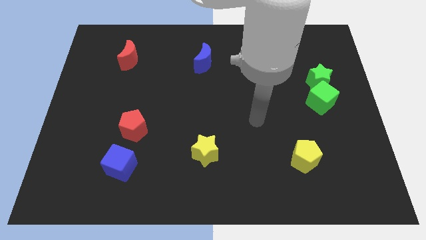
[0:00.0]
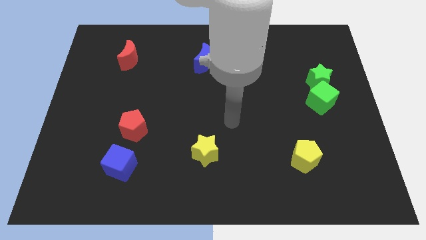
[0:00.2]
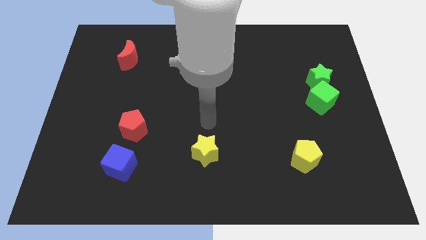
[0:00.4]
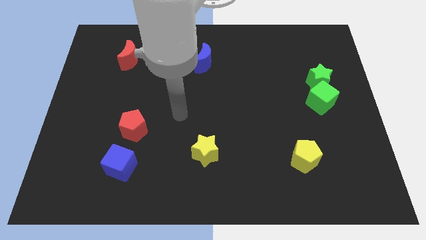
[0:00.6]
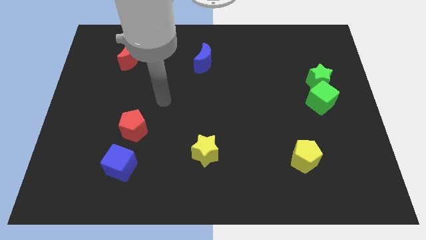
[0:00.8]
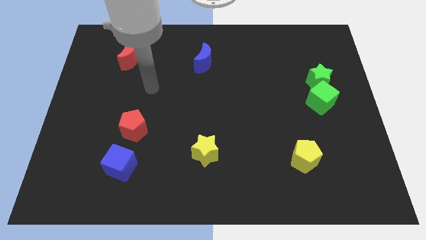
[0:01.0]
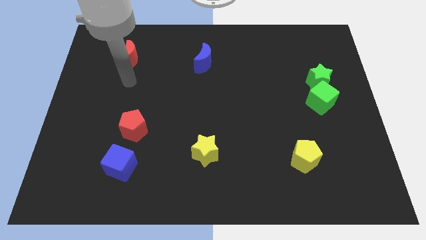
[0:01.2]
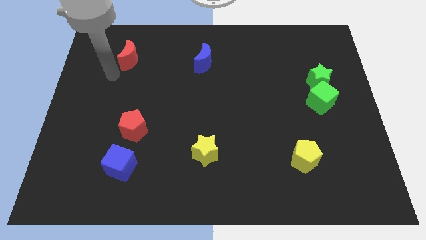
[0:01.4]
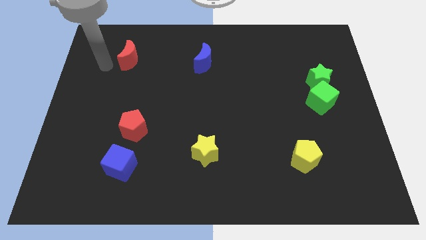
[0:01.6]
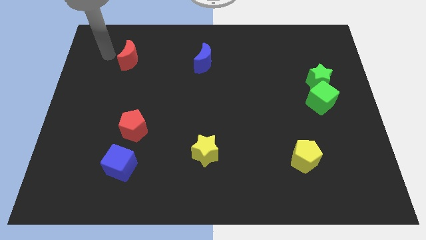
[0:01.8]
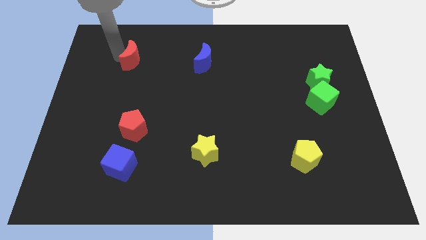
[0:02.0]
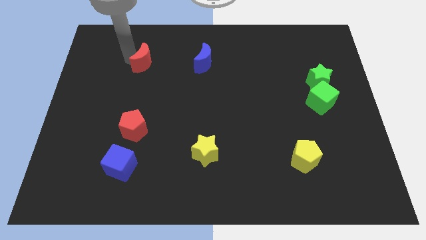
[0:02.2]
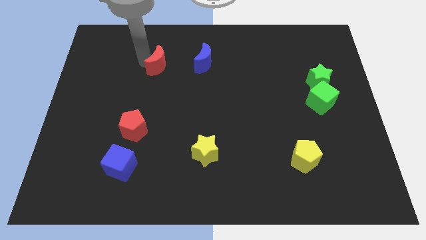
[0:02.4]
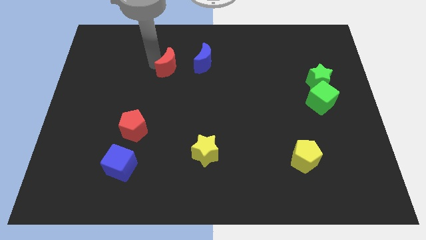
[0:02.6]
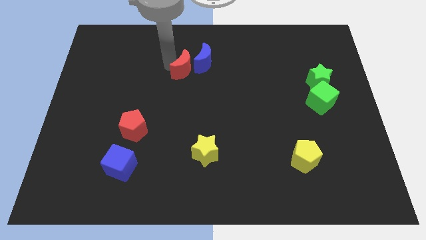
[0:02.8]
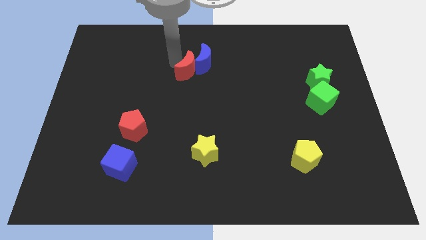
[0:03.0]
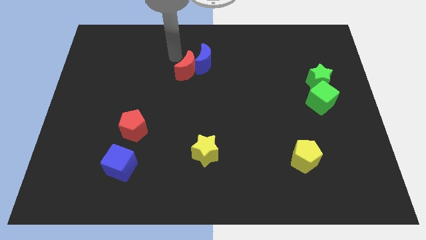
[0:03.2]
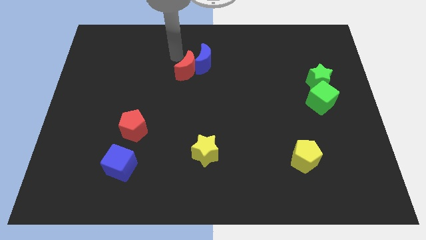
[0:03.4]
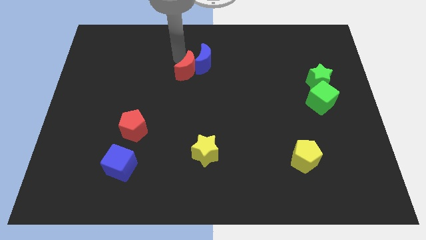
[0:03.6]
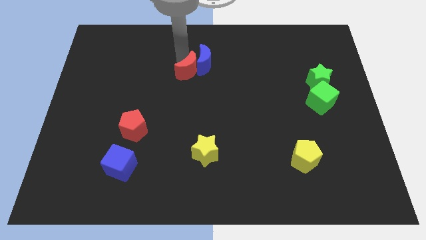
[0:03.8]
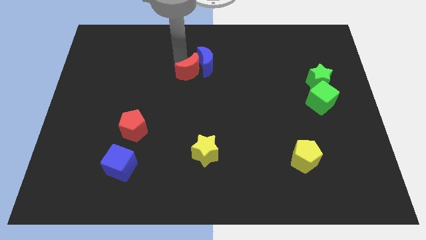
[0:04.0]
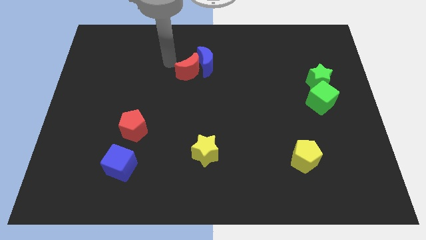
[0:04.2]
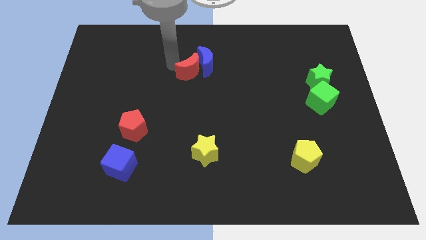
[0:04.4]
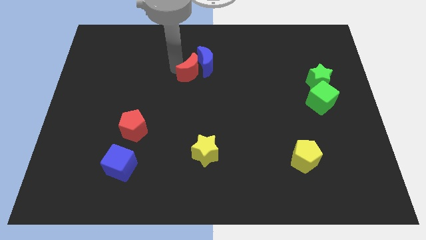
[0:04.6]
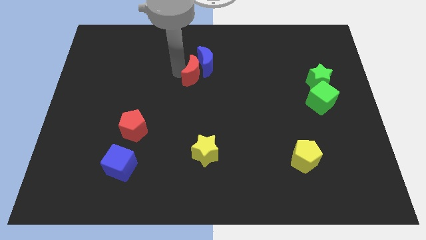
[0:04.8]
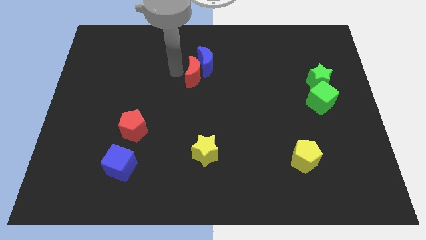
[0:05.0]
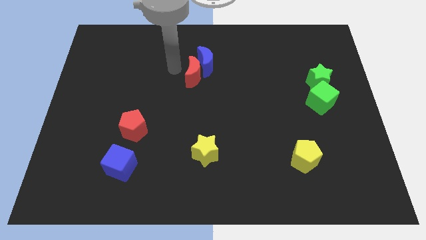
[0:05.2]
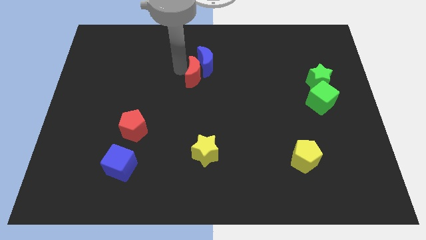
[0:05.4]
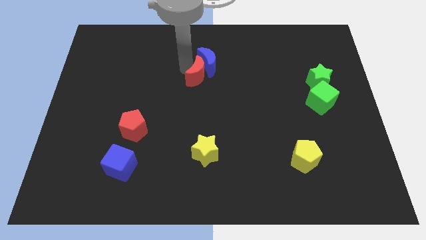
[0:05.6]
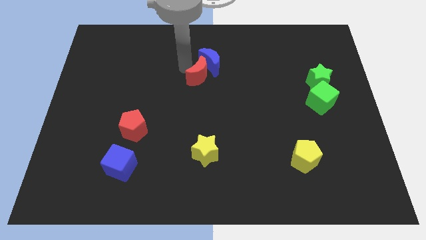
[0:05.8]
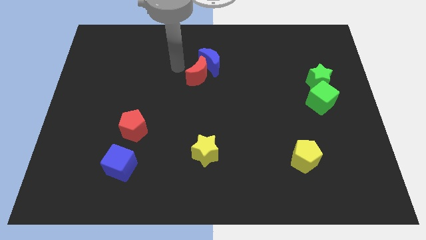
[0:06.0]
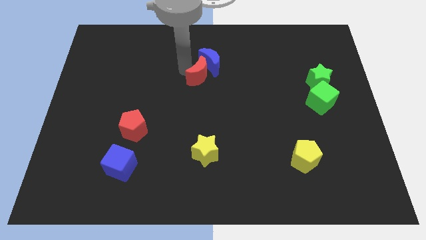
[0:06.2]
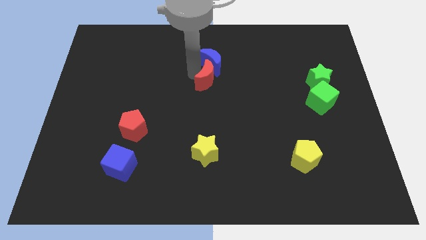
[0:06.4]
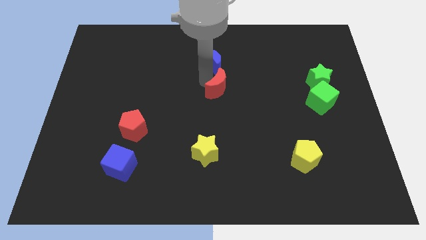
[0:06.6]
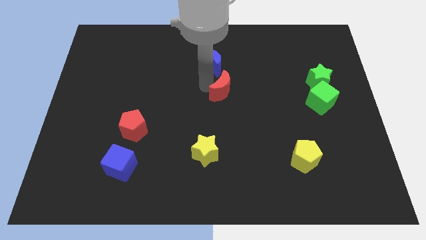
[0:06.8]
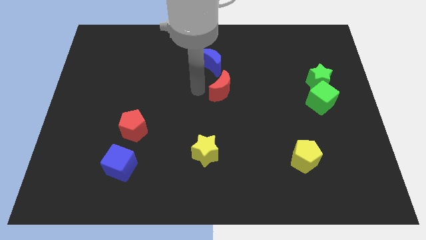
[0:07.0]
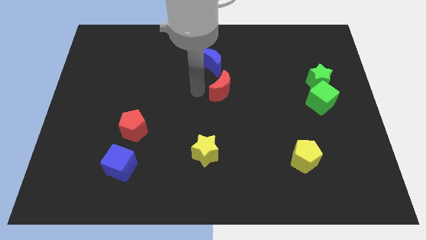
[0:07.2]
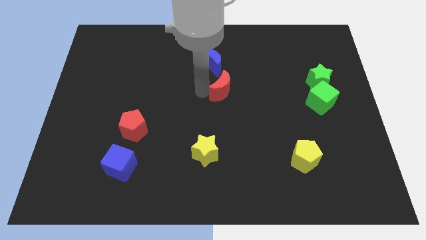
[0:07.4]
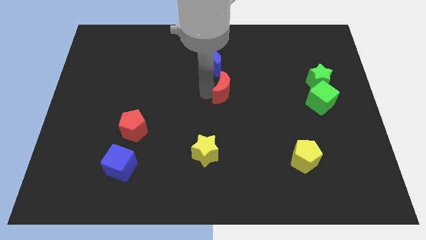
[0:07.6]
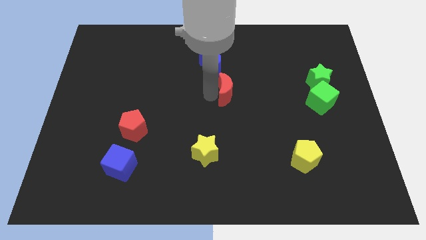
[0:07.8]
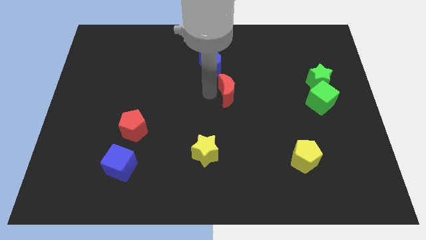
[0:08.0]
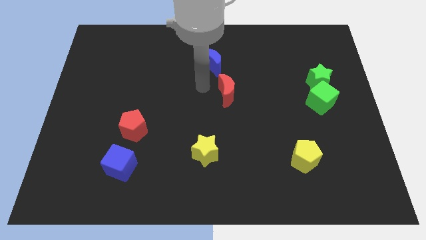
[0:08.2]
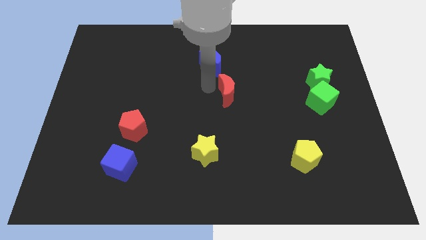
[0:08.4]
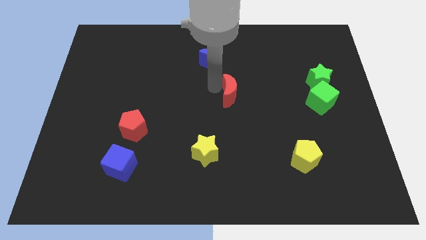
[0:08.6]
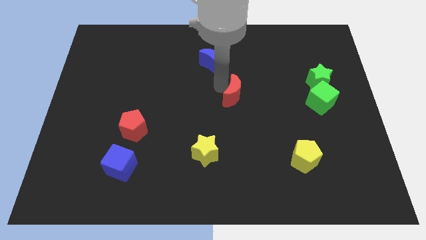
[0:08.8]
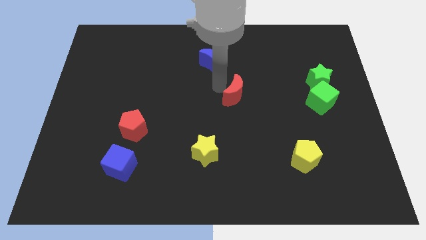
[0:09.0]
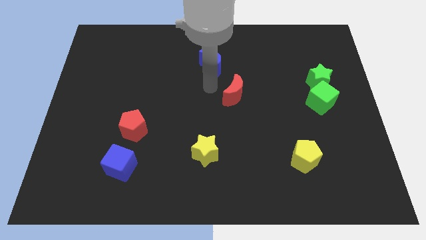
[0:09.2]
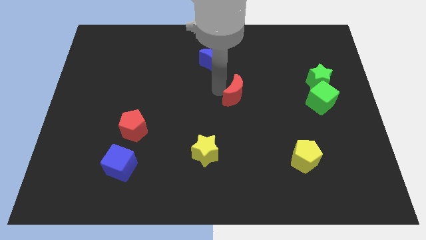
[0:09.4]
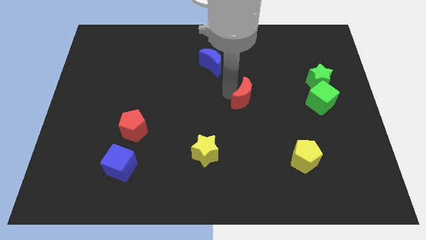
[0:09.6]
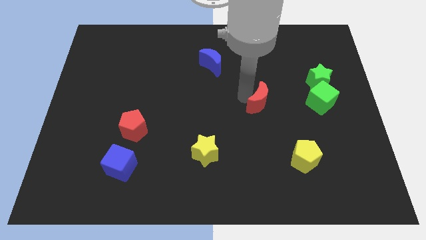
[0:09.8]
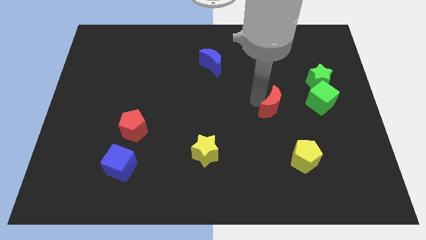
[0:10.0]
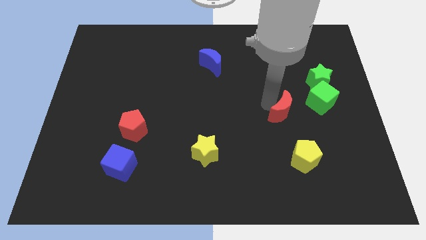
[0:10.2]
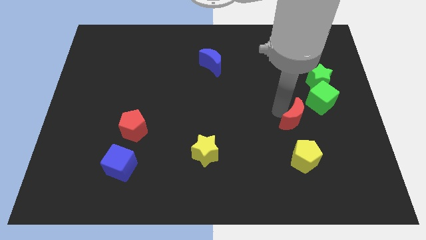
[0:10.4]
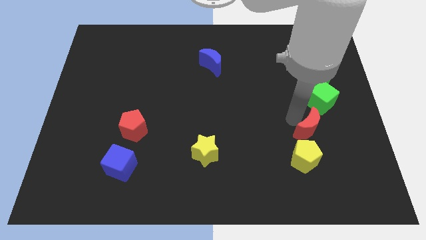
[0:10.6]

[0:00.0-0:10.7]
put the red moon to the bottom side of the green cube

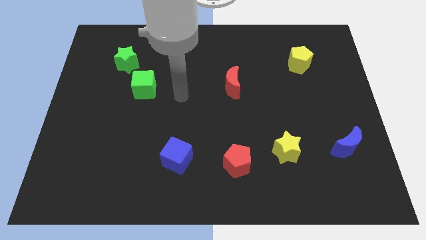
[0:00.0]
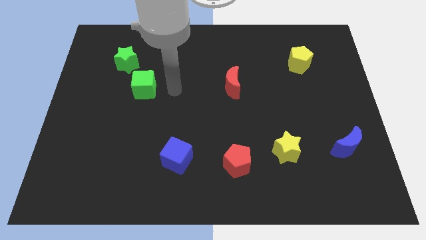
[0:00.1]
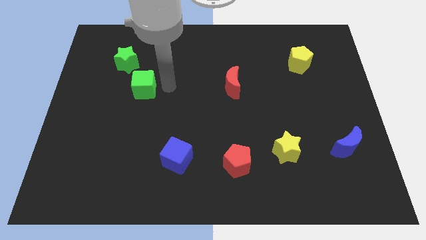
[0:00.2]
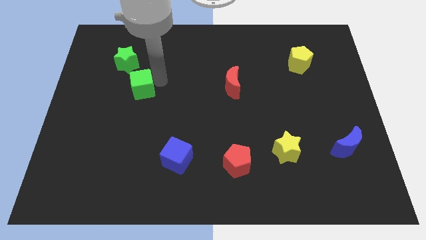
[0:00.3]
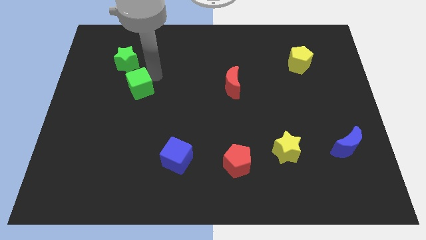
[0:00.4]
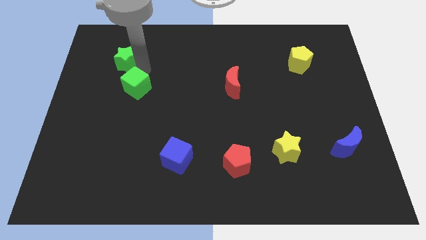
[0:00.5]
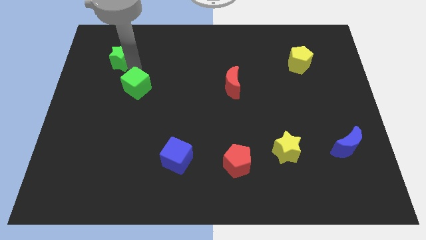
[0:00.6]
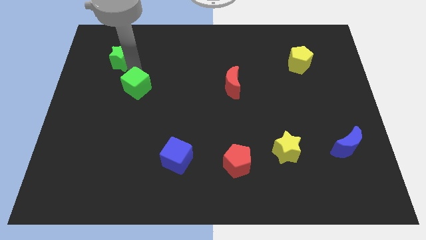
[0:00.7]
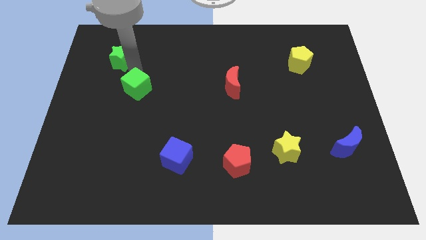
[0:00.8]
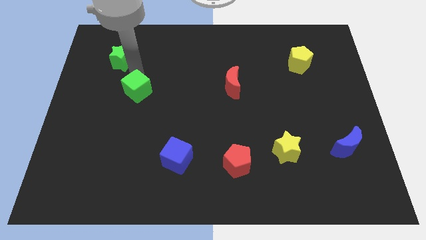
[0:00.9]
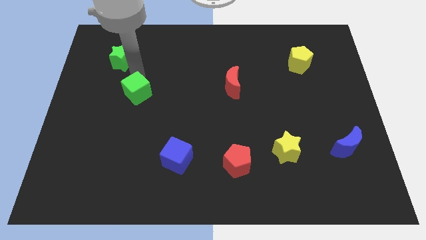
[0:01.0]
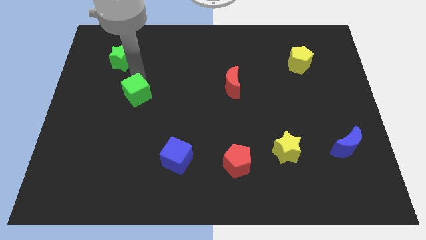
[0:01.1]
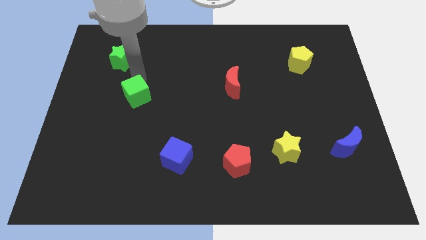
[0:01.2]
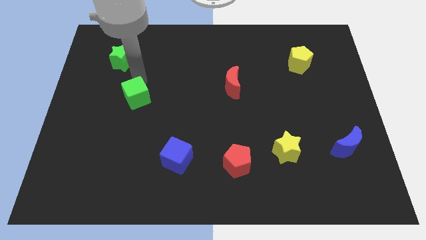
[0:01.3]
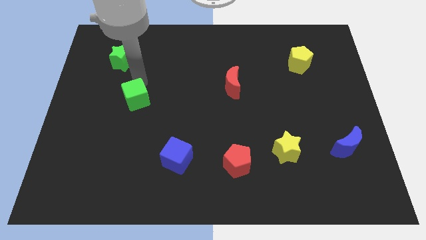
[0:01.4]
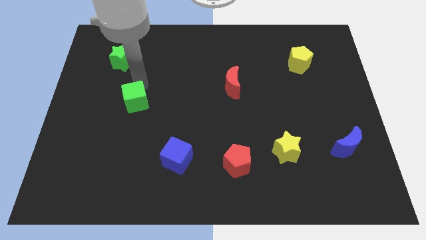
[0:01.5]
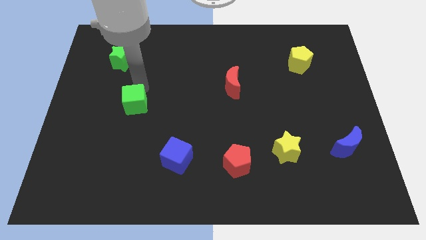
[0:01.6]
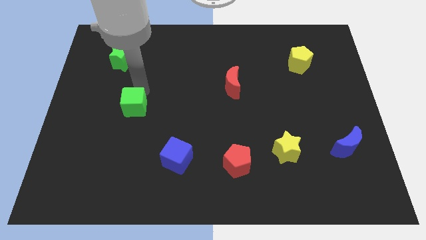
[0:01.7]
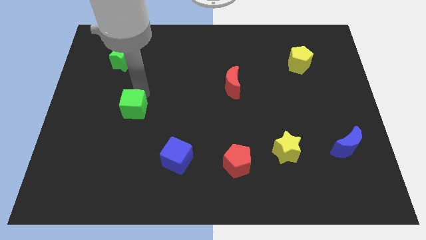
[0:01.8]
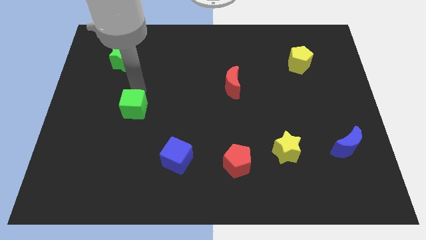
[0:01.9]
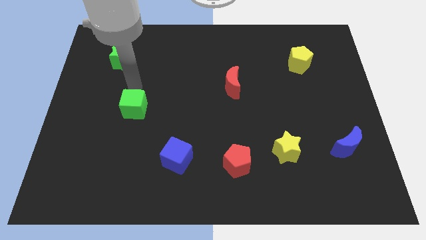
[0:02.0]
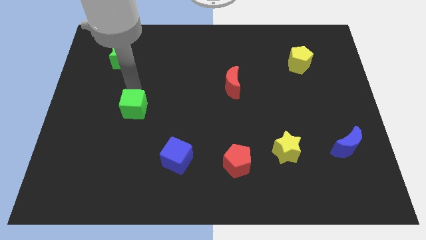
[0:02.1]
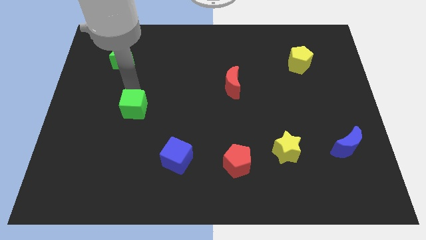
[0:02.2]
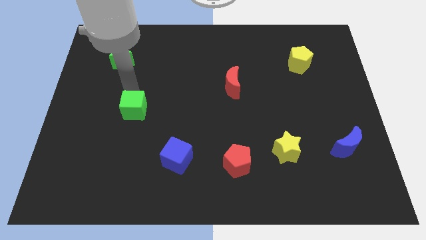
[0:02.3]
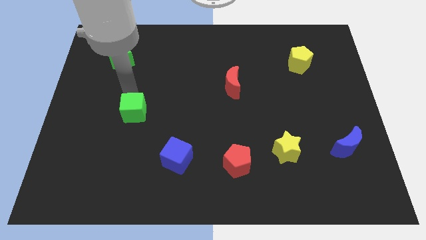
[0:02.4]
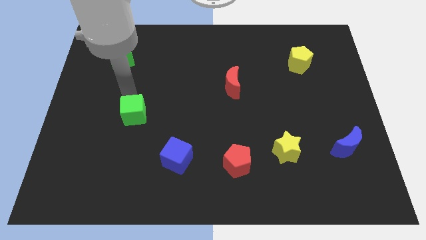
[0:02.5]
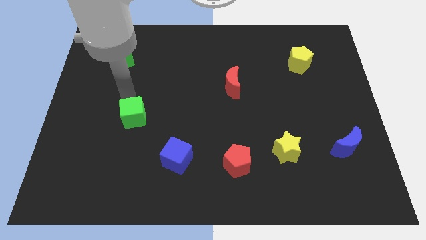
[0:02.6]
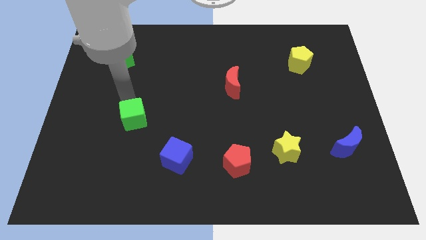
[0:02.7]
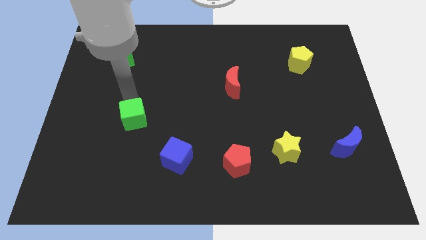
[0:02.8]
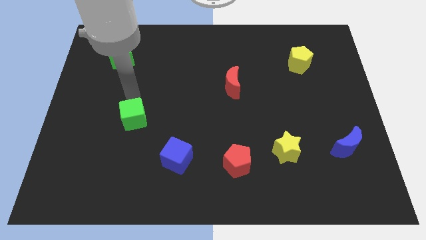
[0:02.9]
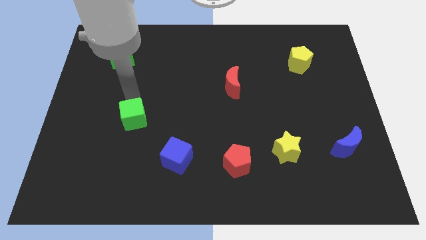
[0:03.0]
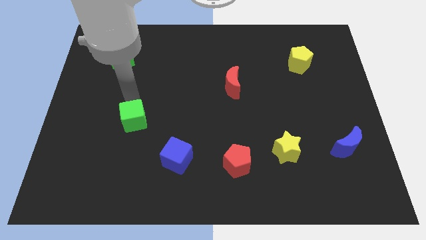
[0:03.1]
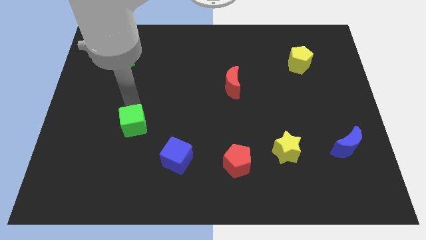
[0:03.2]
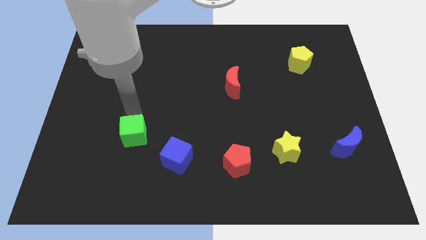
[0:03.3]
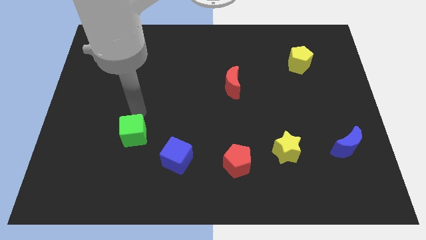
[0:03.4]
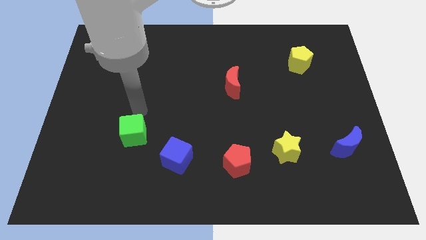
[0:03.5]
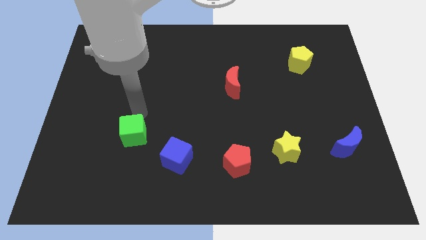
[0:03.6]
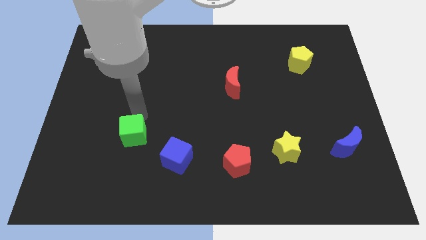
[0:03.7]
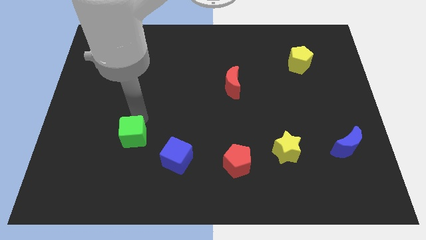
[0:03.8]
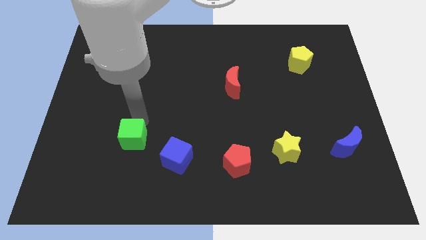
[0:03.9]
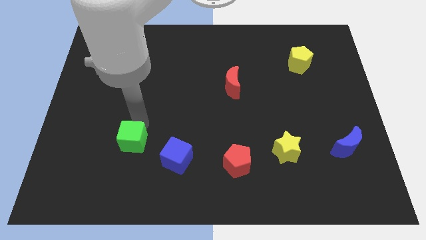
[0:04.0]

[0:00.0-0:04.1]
push the green cube just left of the blue cube
